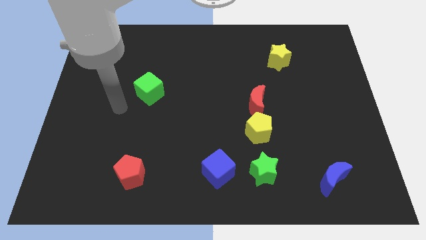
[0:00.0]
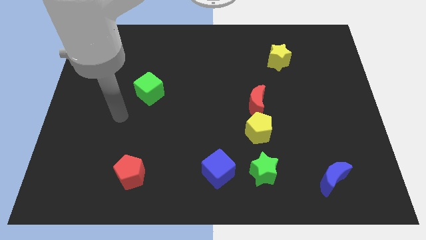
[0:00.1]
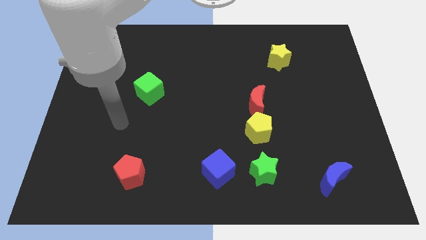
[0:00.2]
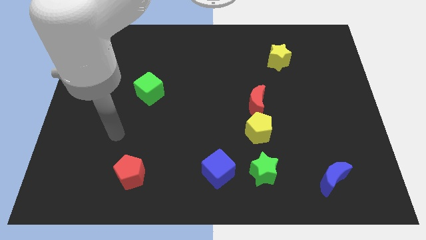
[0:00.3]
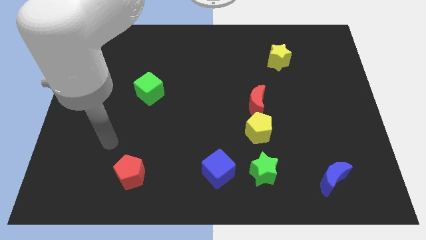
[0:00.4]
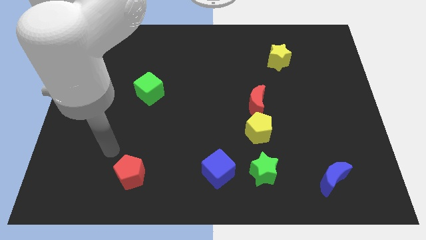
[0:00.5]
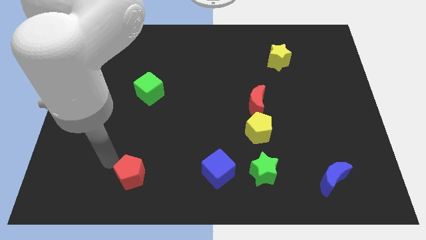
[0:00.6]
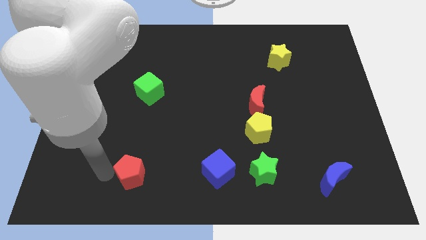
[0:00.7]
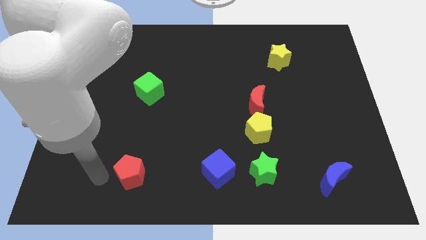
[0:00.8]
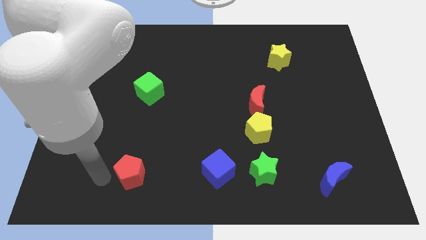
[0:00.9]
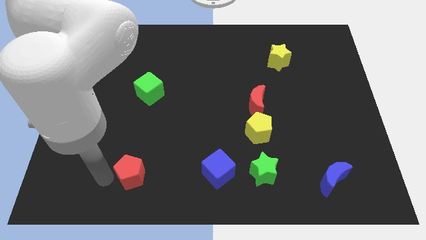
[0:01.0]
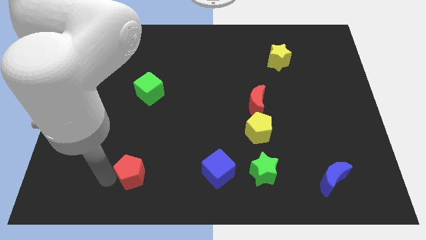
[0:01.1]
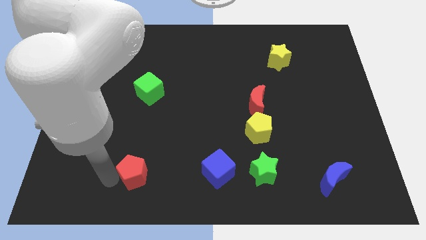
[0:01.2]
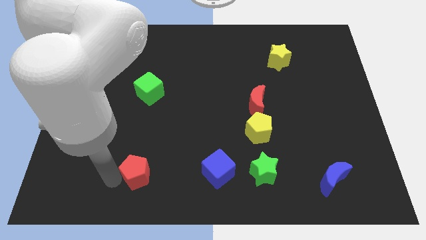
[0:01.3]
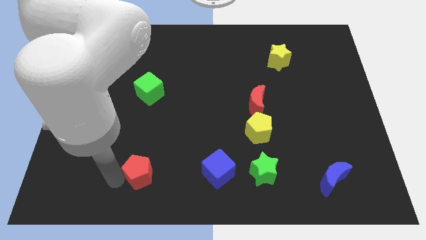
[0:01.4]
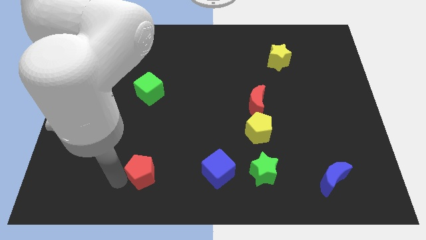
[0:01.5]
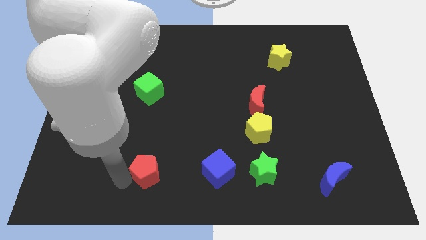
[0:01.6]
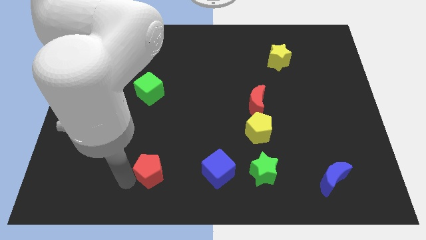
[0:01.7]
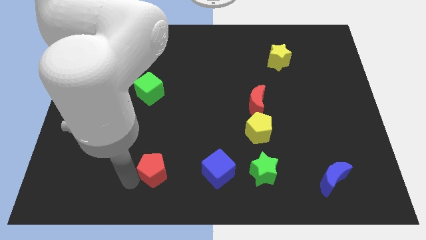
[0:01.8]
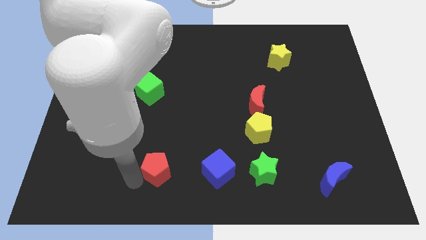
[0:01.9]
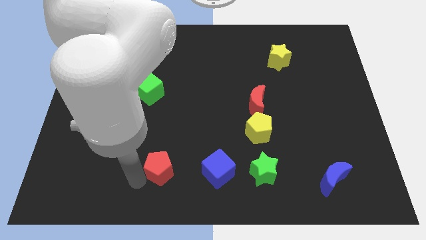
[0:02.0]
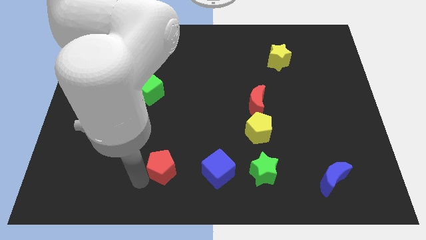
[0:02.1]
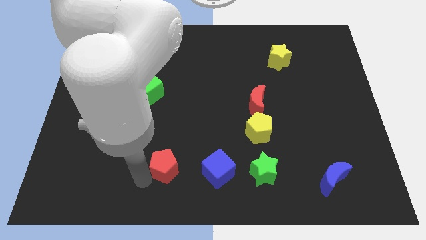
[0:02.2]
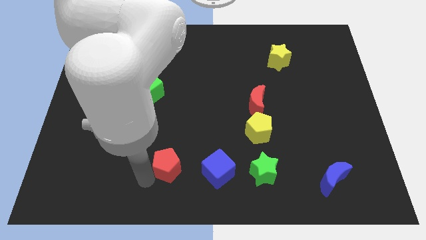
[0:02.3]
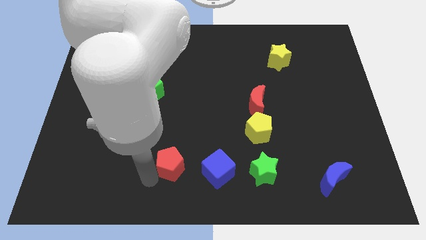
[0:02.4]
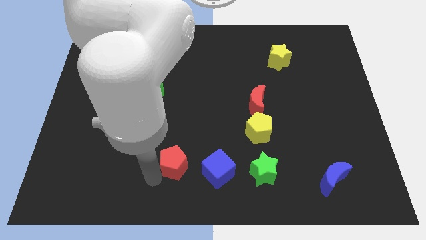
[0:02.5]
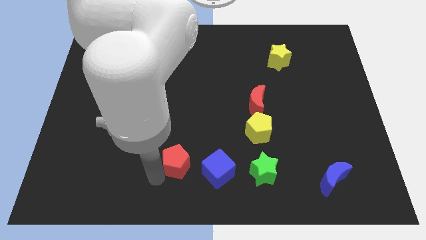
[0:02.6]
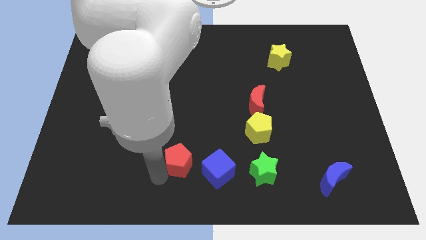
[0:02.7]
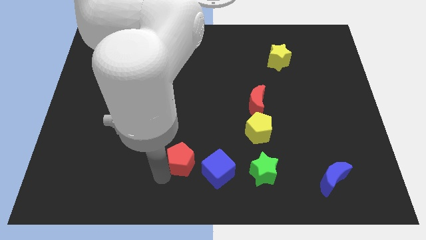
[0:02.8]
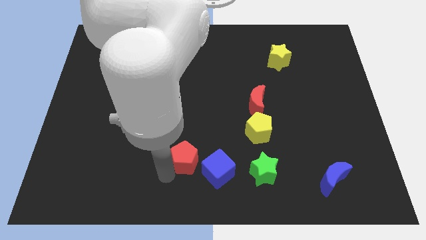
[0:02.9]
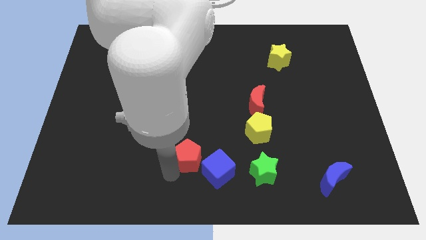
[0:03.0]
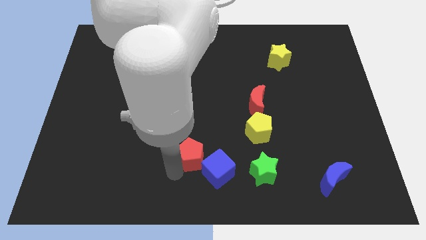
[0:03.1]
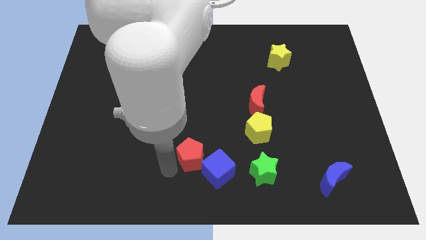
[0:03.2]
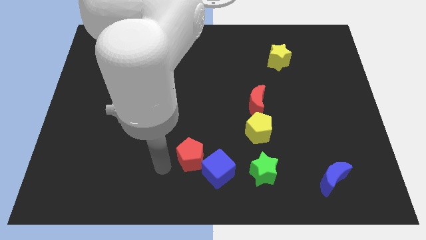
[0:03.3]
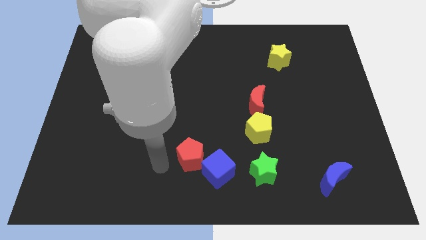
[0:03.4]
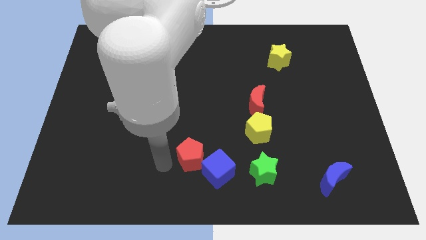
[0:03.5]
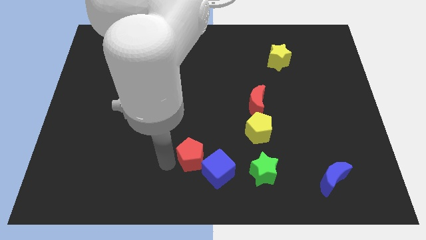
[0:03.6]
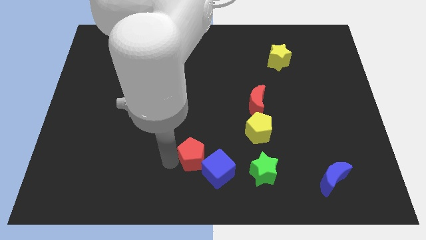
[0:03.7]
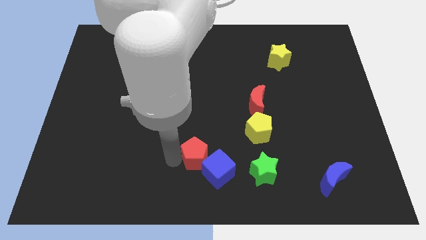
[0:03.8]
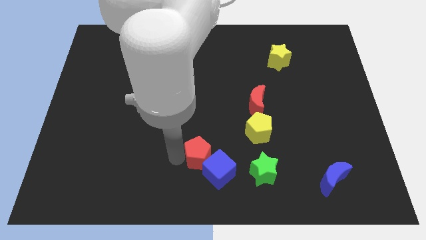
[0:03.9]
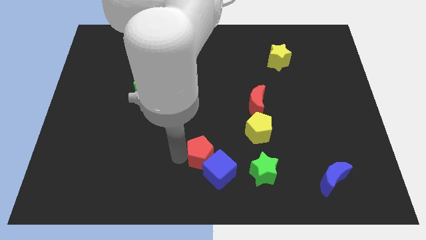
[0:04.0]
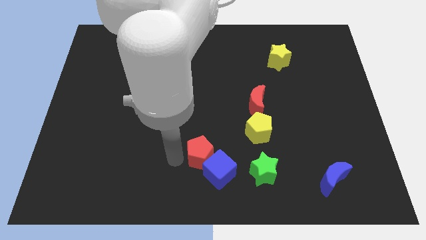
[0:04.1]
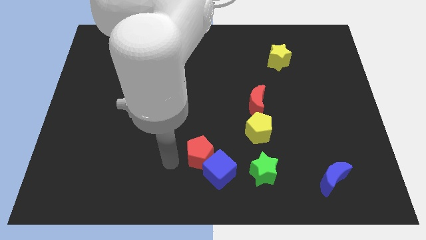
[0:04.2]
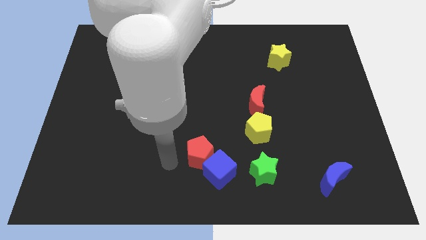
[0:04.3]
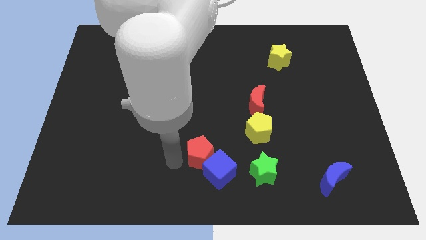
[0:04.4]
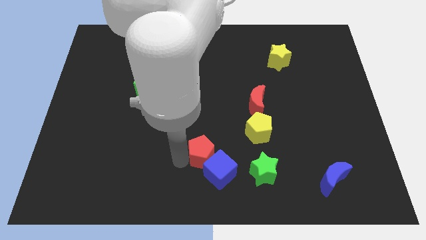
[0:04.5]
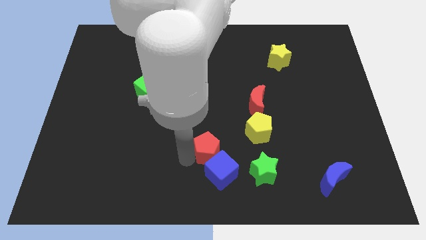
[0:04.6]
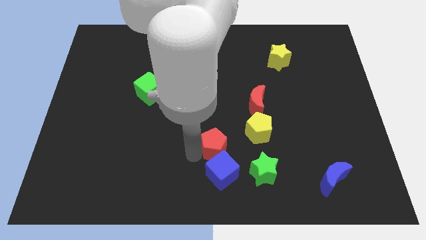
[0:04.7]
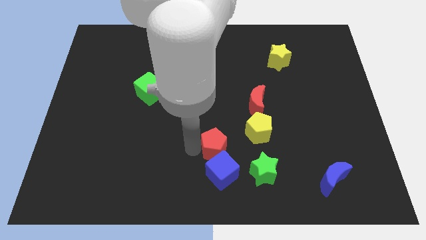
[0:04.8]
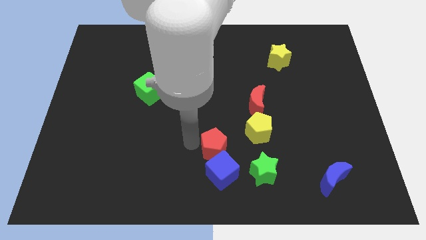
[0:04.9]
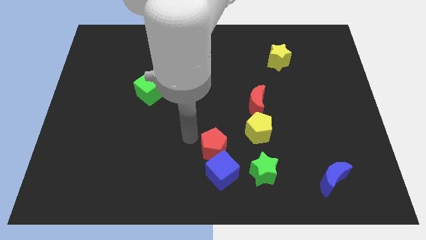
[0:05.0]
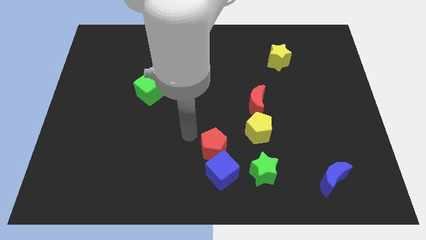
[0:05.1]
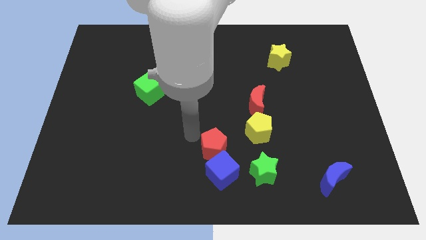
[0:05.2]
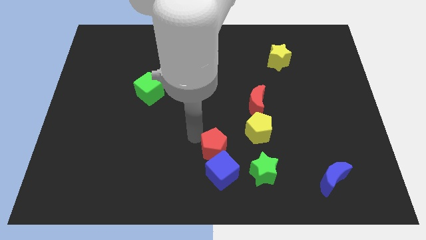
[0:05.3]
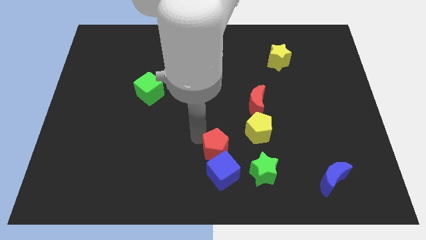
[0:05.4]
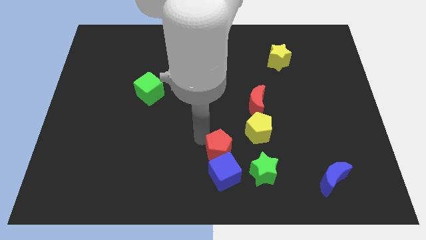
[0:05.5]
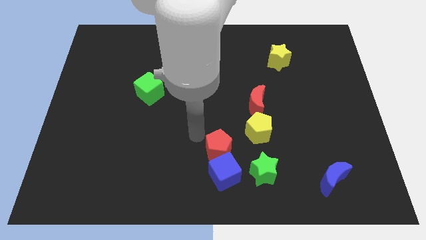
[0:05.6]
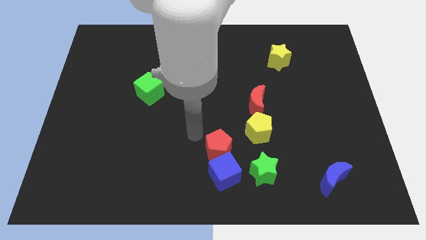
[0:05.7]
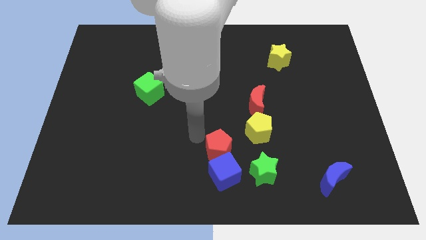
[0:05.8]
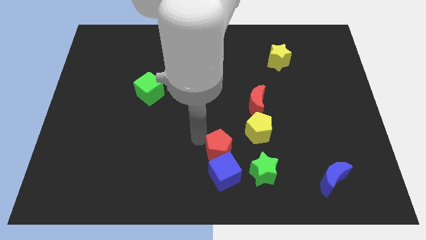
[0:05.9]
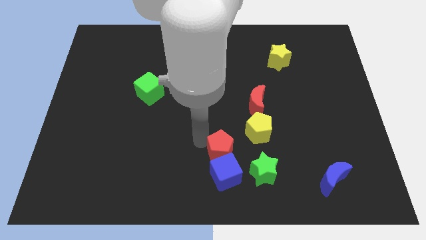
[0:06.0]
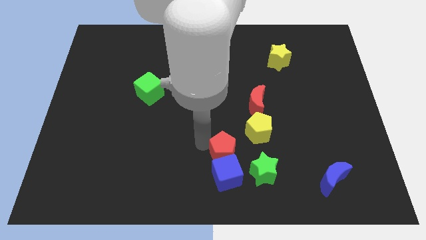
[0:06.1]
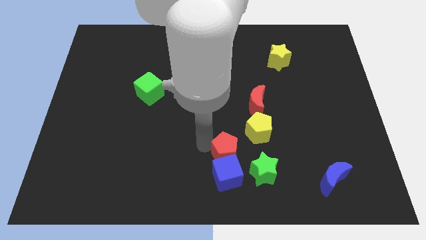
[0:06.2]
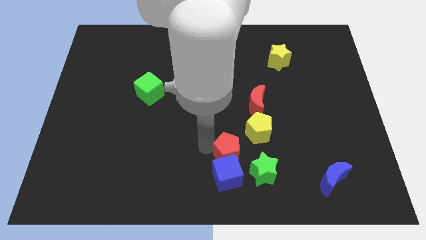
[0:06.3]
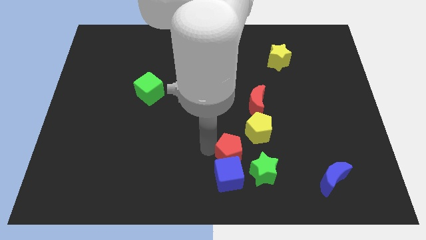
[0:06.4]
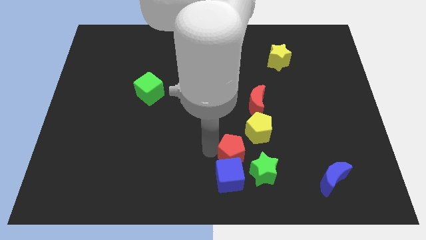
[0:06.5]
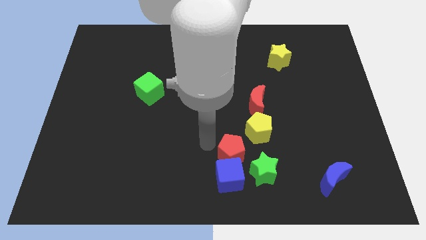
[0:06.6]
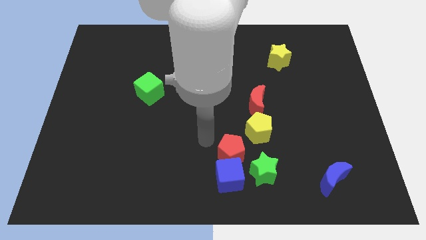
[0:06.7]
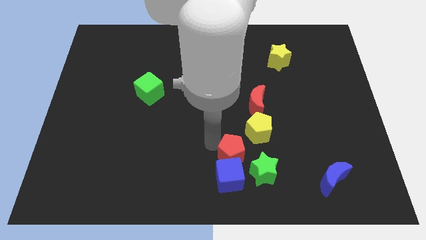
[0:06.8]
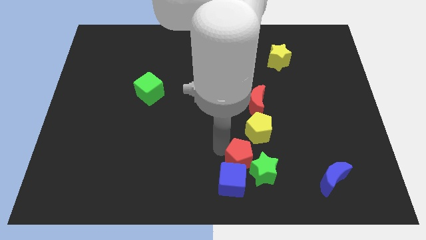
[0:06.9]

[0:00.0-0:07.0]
push the red pentagon next to the green star
